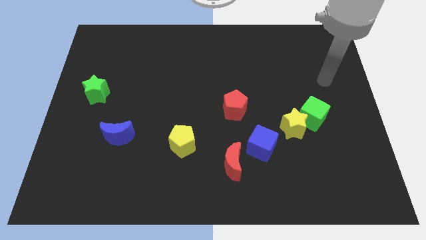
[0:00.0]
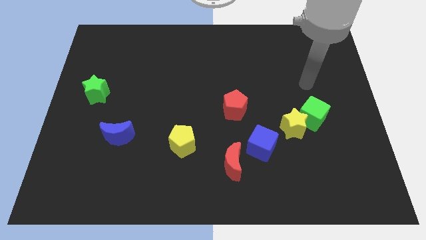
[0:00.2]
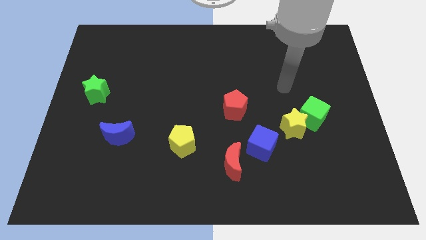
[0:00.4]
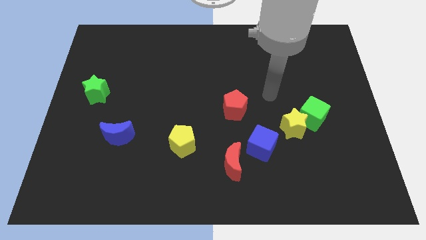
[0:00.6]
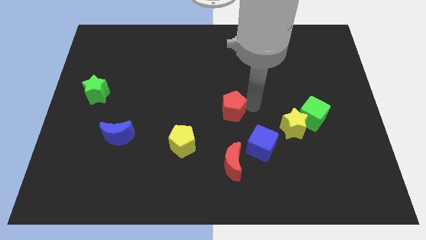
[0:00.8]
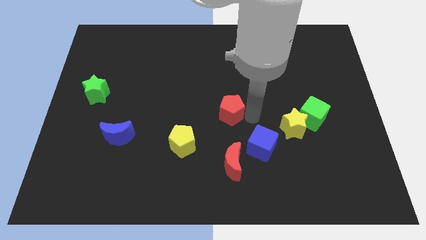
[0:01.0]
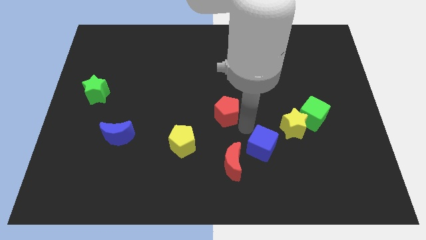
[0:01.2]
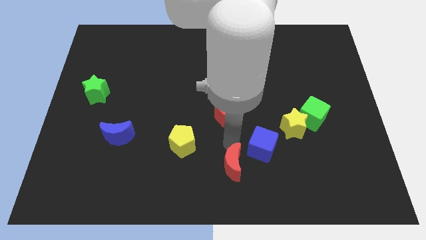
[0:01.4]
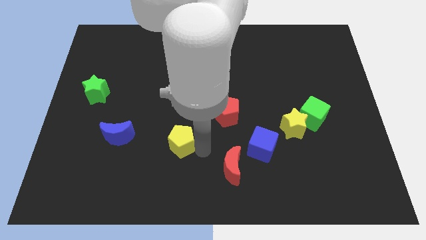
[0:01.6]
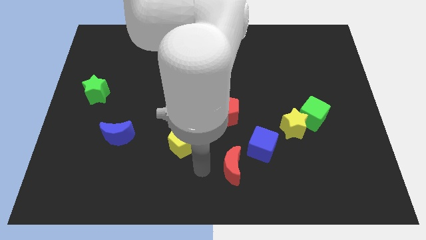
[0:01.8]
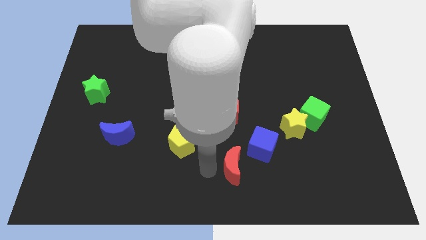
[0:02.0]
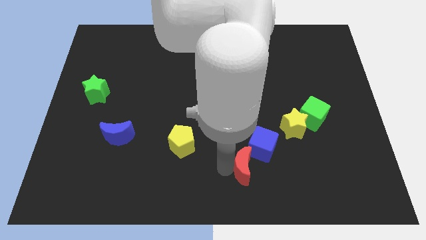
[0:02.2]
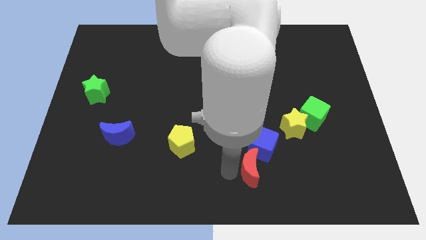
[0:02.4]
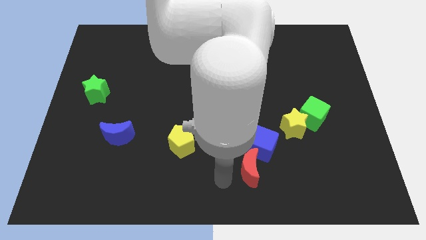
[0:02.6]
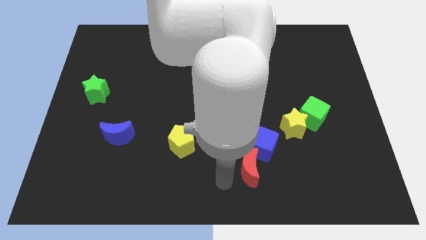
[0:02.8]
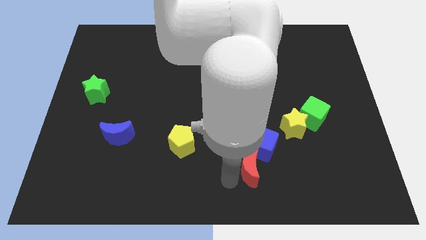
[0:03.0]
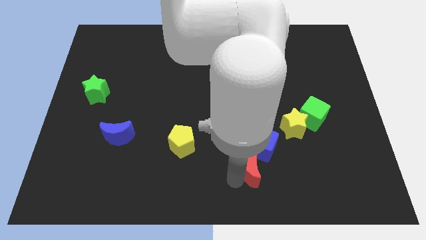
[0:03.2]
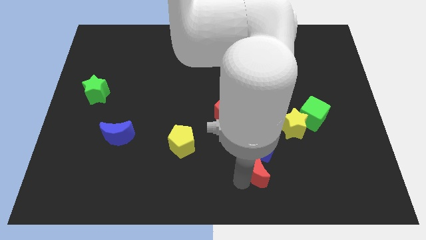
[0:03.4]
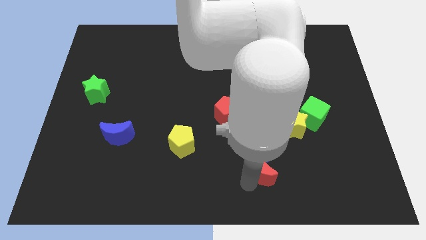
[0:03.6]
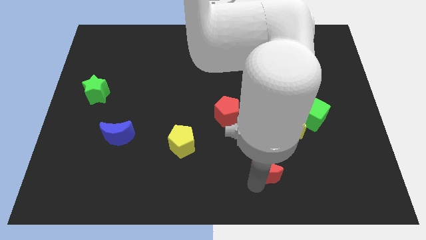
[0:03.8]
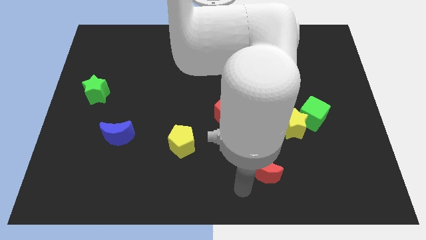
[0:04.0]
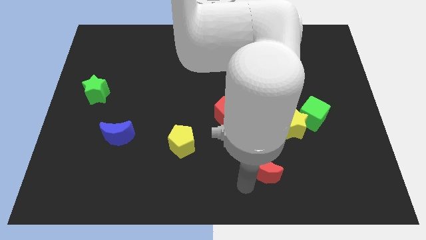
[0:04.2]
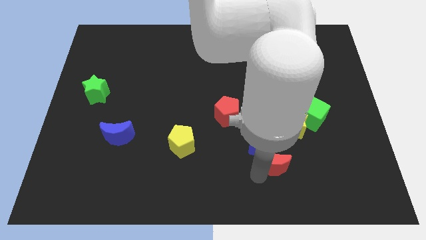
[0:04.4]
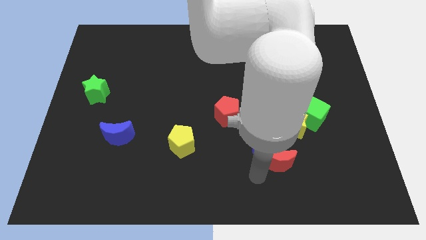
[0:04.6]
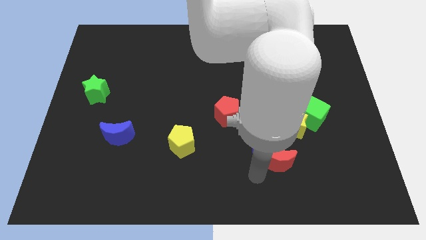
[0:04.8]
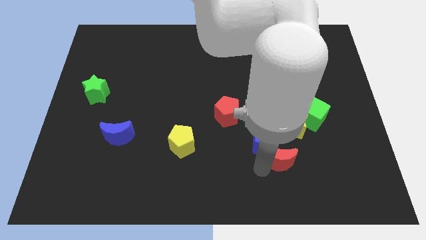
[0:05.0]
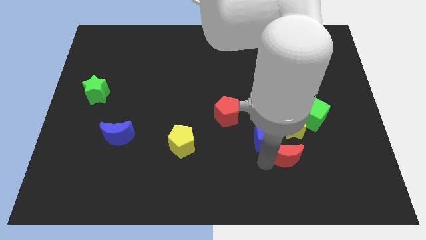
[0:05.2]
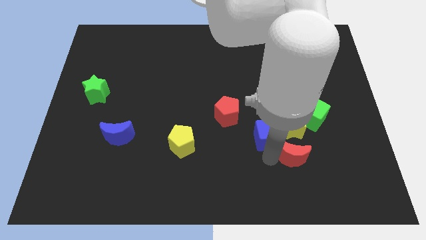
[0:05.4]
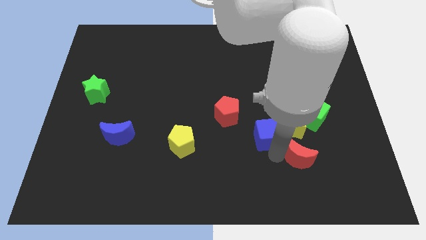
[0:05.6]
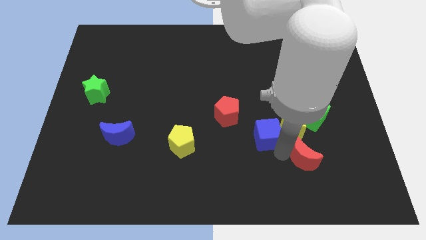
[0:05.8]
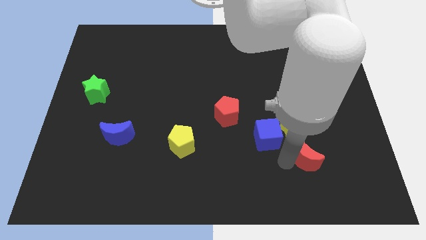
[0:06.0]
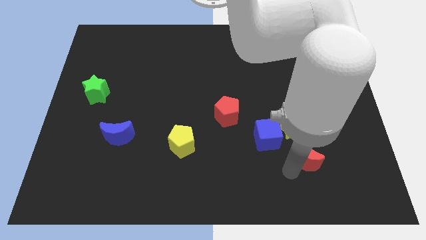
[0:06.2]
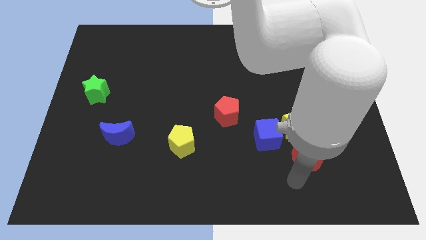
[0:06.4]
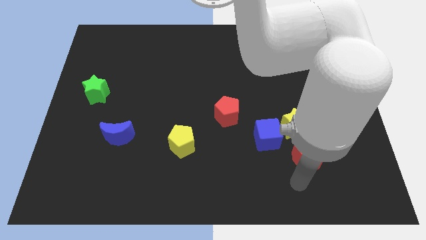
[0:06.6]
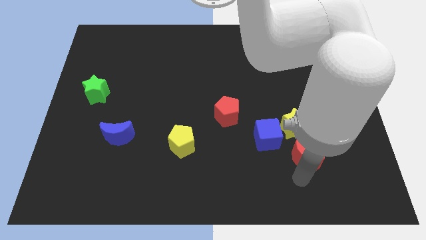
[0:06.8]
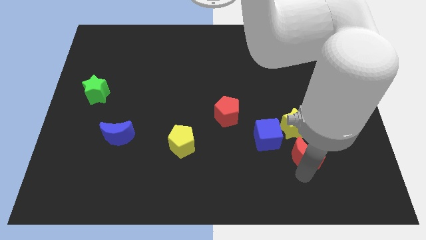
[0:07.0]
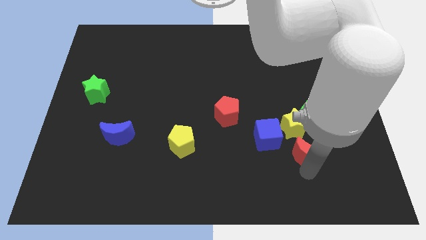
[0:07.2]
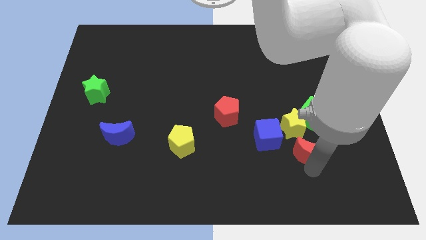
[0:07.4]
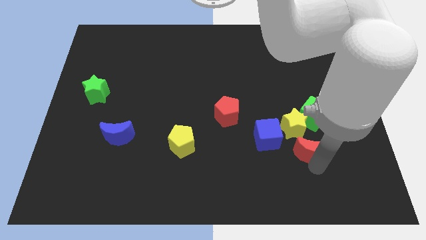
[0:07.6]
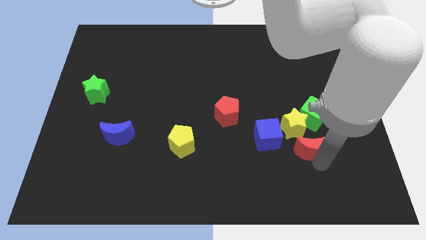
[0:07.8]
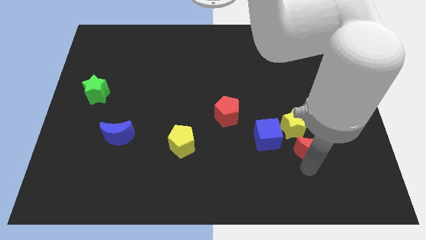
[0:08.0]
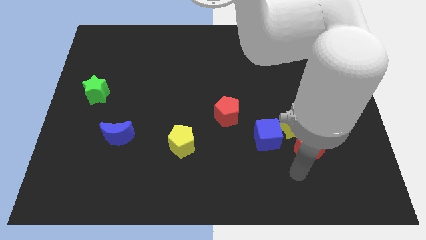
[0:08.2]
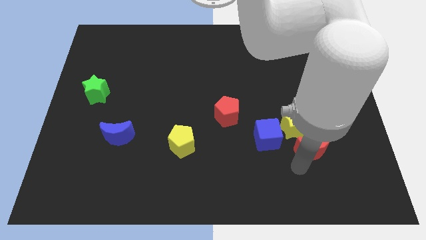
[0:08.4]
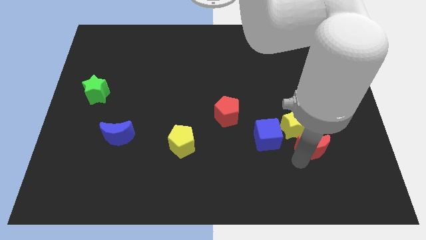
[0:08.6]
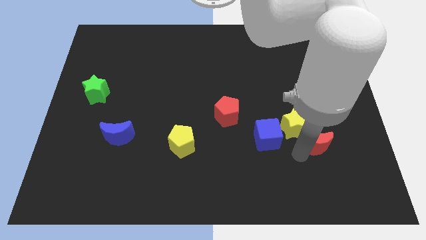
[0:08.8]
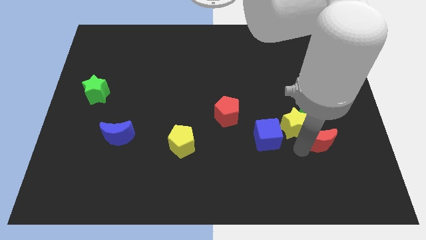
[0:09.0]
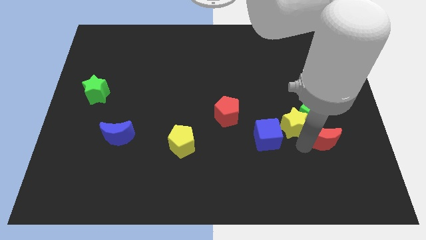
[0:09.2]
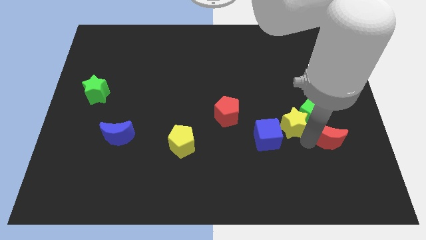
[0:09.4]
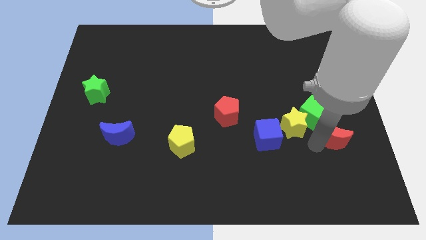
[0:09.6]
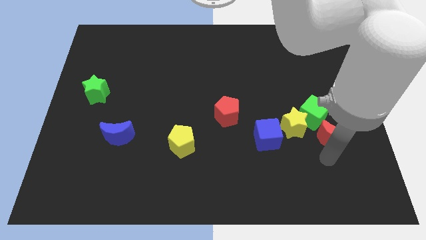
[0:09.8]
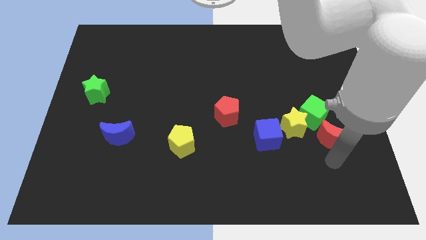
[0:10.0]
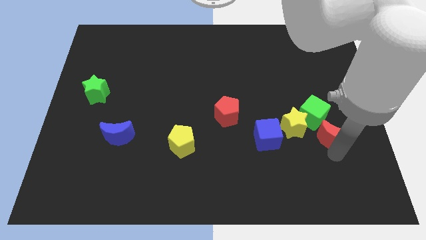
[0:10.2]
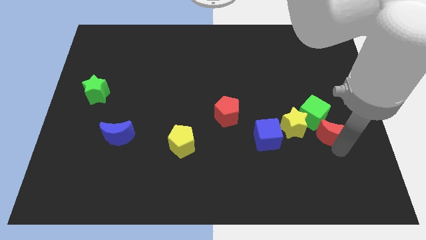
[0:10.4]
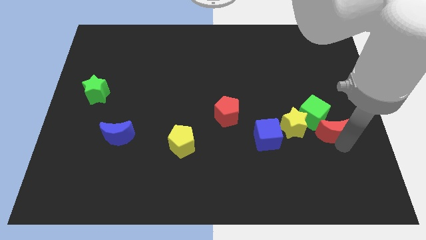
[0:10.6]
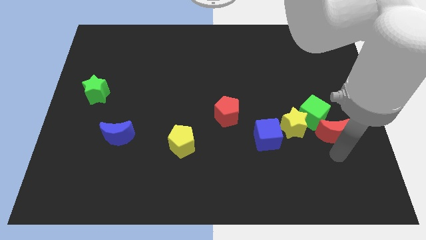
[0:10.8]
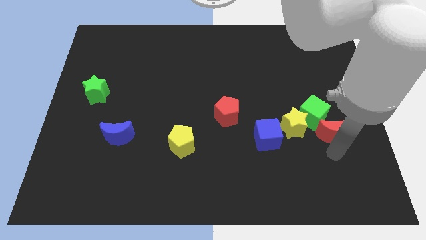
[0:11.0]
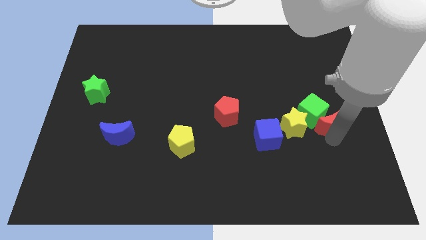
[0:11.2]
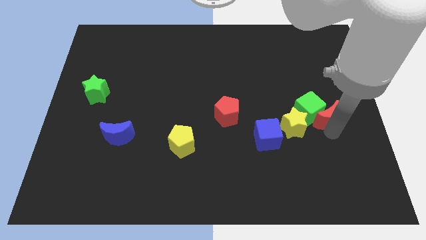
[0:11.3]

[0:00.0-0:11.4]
push the red moon up and then to the right

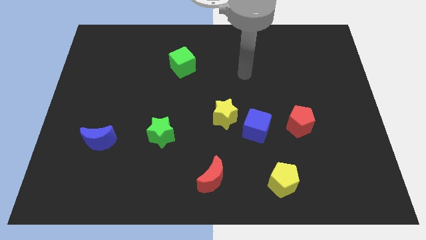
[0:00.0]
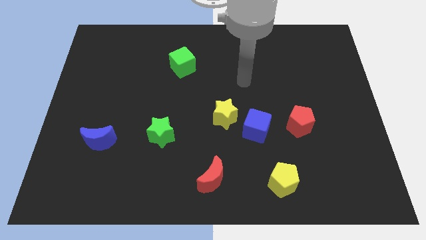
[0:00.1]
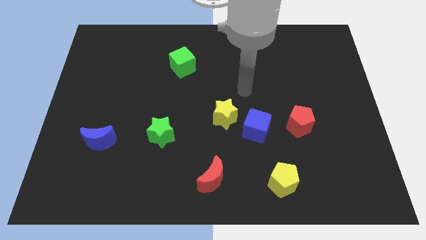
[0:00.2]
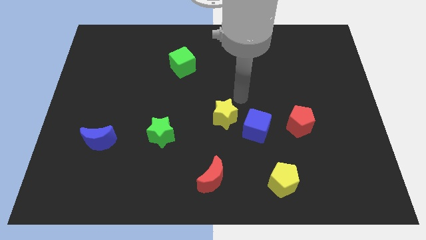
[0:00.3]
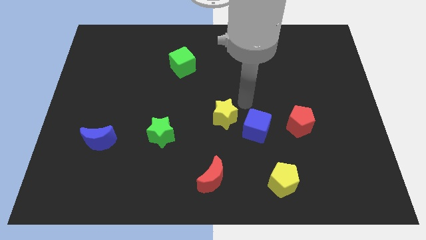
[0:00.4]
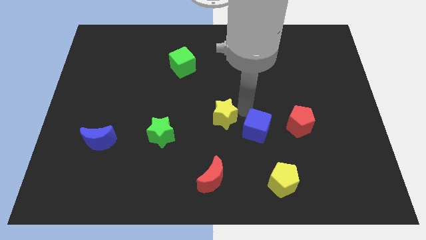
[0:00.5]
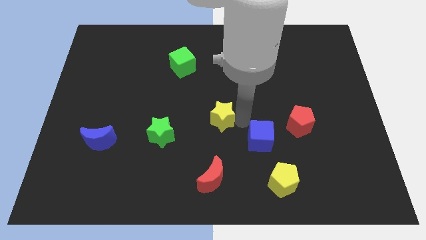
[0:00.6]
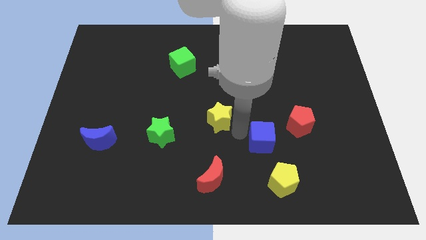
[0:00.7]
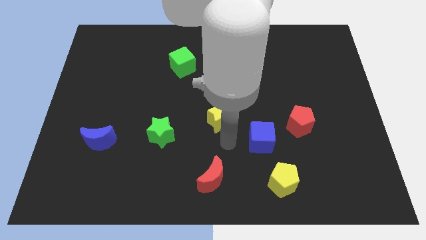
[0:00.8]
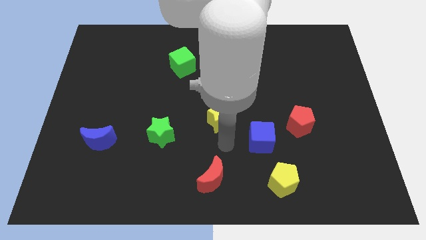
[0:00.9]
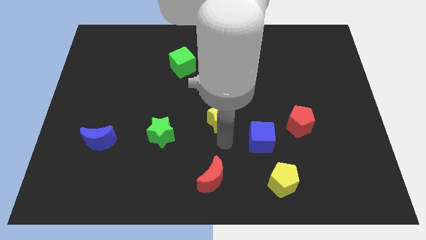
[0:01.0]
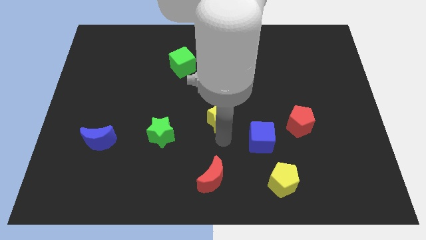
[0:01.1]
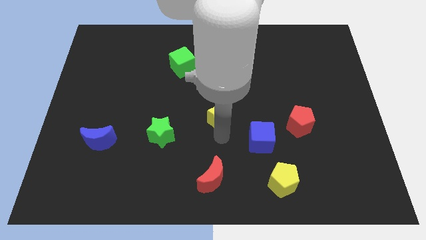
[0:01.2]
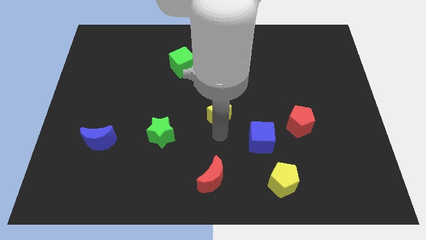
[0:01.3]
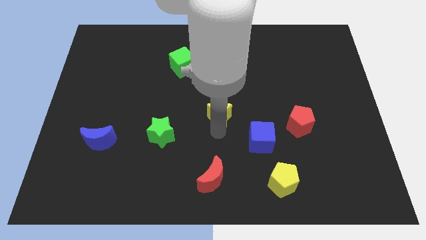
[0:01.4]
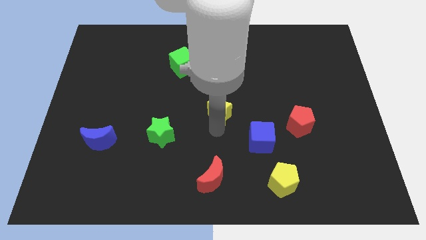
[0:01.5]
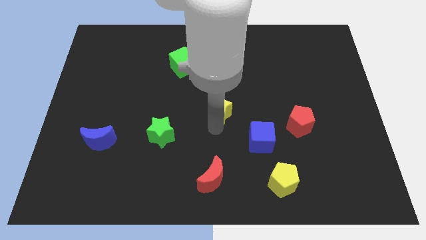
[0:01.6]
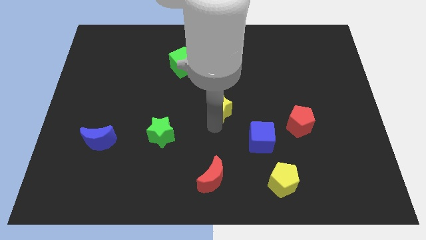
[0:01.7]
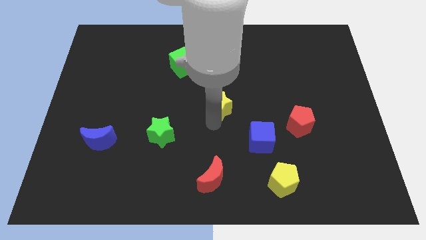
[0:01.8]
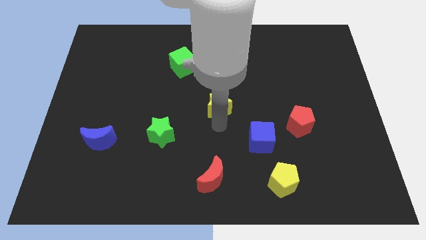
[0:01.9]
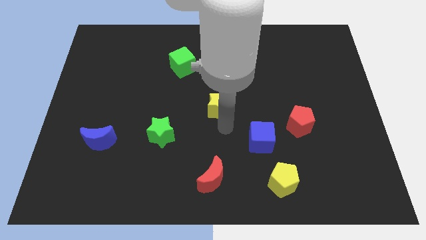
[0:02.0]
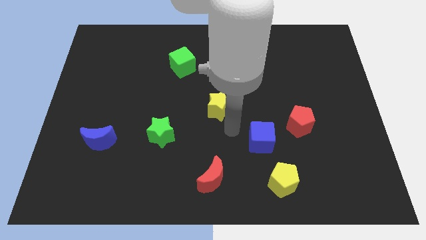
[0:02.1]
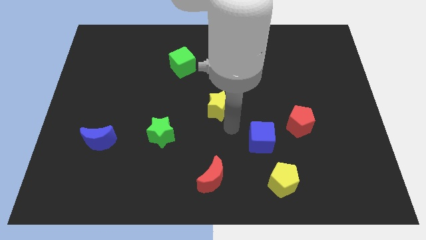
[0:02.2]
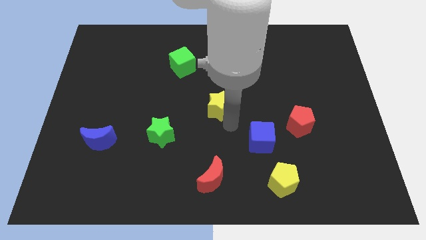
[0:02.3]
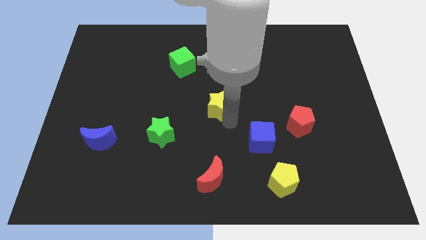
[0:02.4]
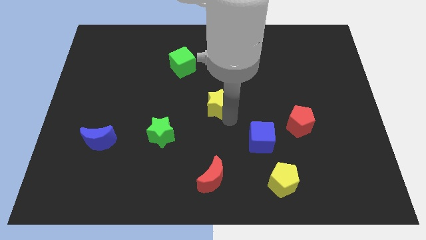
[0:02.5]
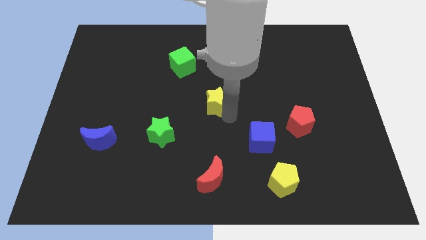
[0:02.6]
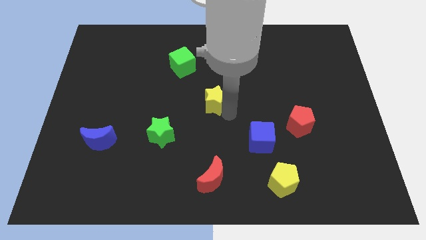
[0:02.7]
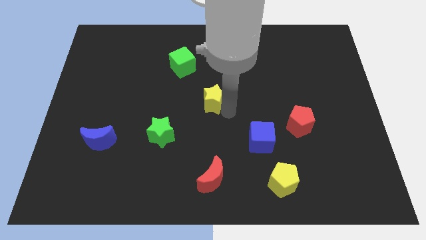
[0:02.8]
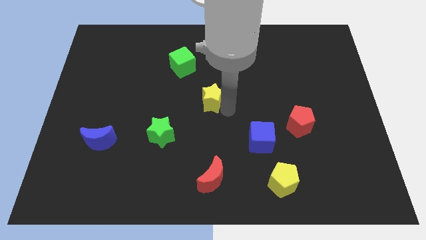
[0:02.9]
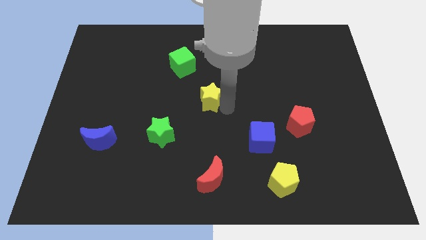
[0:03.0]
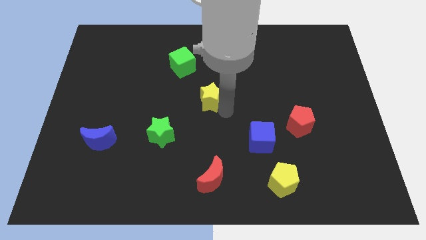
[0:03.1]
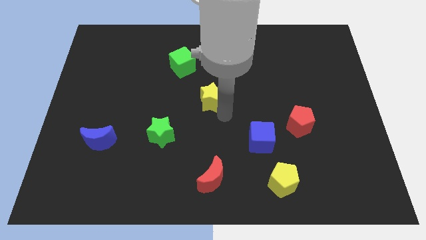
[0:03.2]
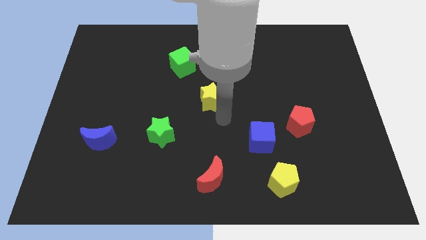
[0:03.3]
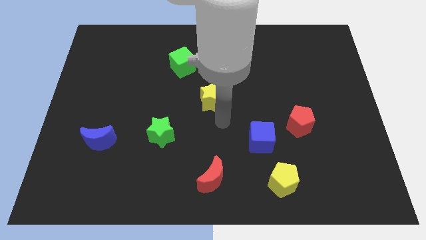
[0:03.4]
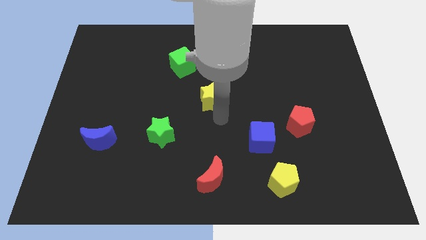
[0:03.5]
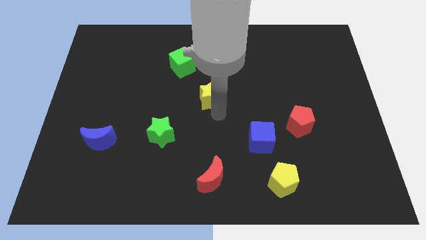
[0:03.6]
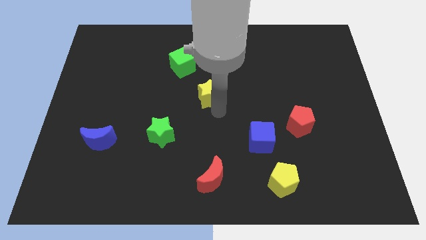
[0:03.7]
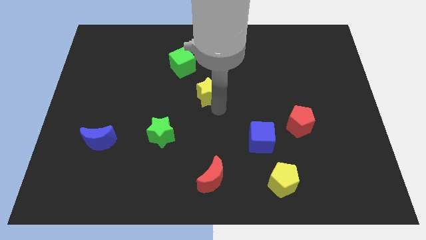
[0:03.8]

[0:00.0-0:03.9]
slightly move the yellow star upwards and then left
